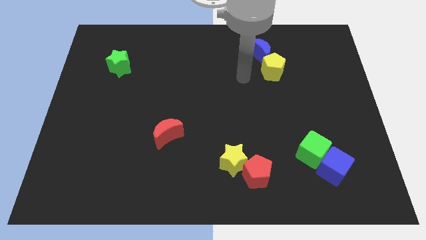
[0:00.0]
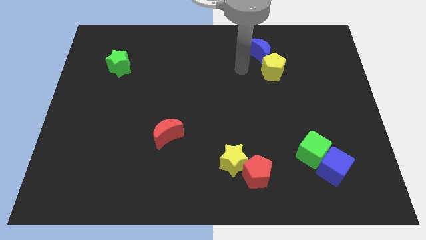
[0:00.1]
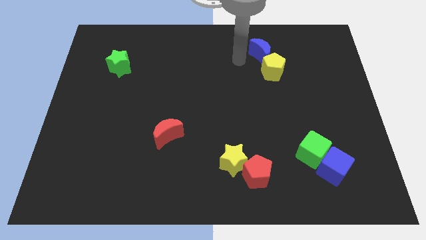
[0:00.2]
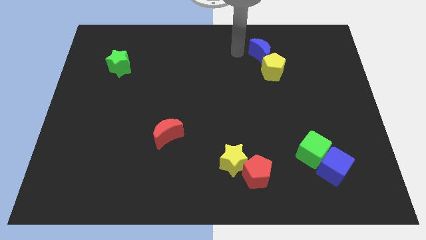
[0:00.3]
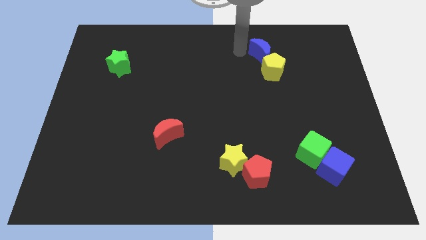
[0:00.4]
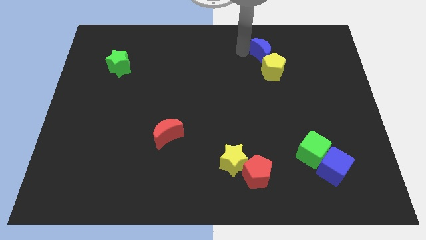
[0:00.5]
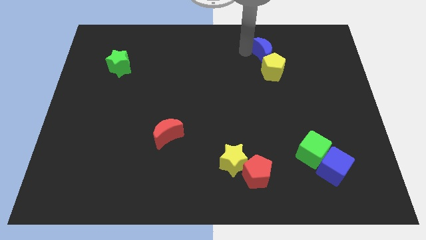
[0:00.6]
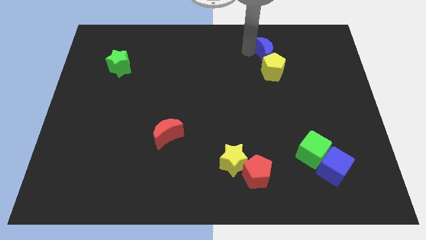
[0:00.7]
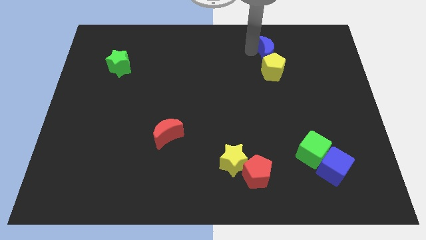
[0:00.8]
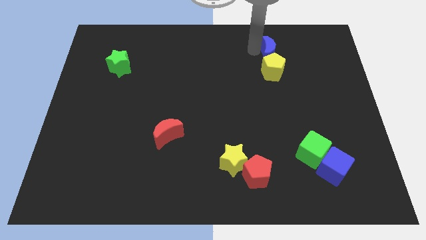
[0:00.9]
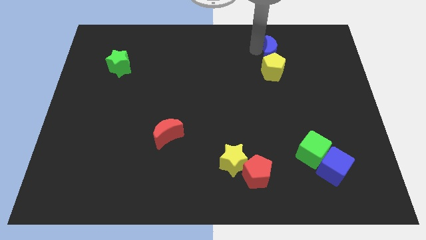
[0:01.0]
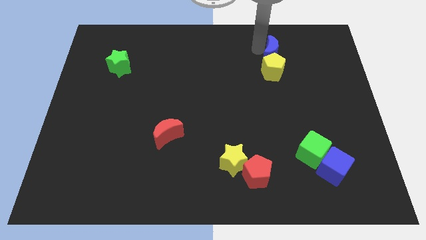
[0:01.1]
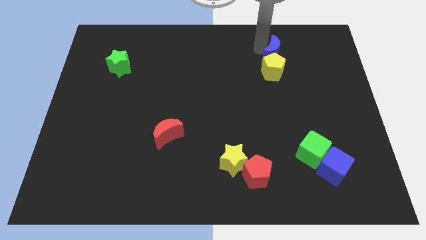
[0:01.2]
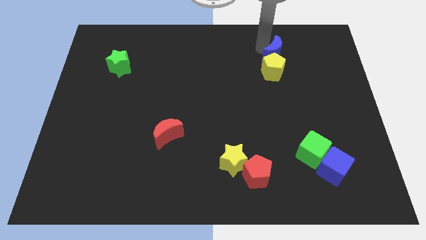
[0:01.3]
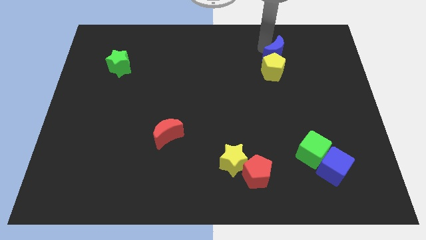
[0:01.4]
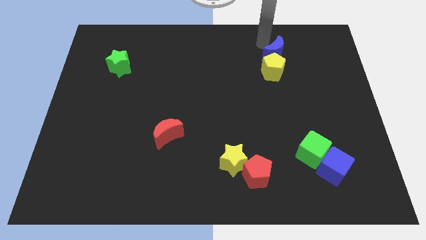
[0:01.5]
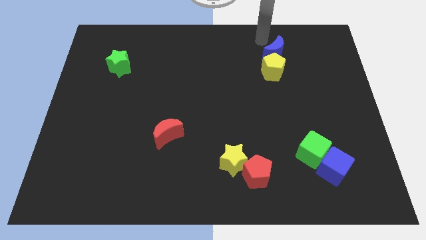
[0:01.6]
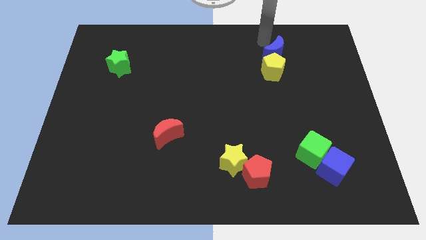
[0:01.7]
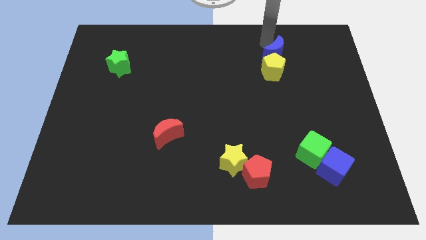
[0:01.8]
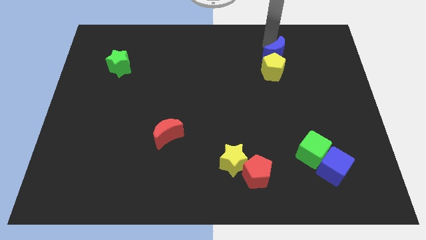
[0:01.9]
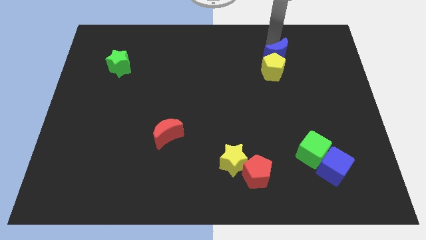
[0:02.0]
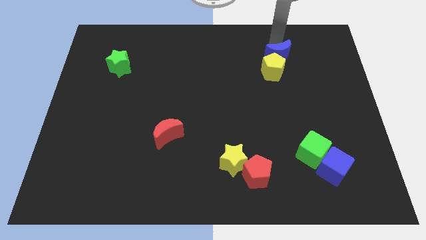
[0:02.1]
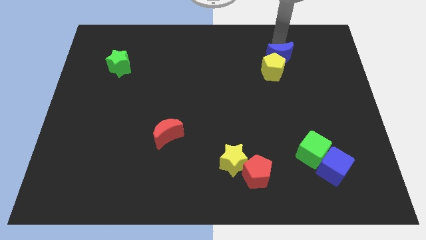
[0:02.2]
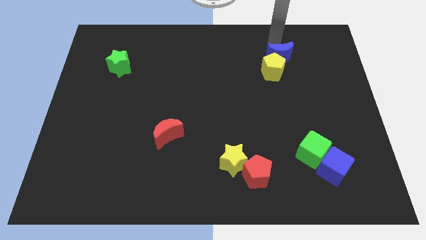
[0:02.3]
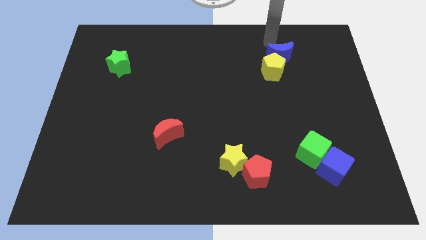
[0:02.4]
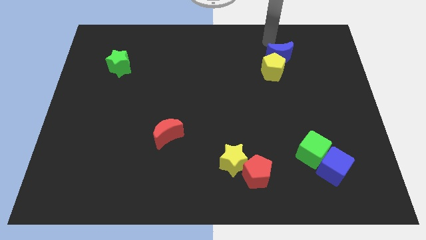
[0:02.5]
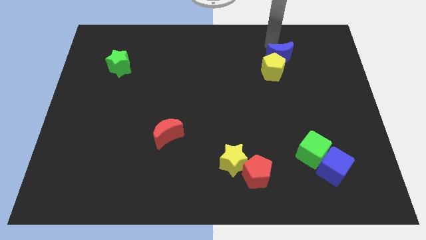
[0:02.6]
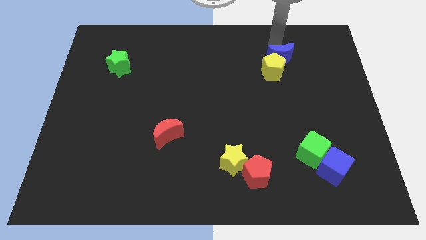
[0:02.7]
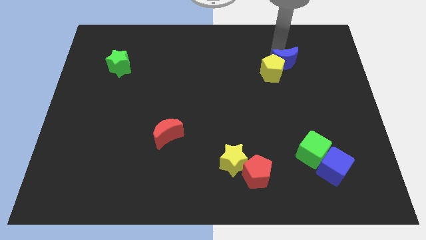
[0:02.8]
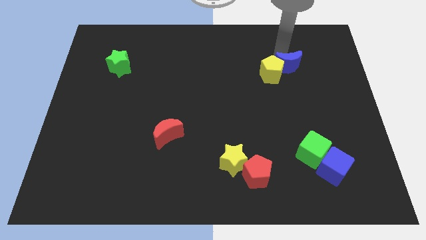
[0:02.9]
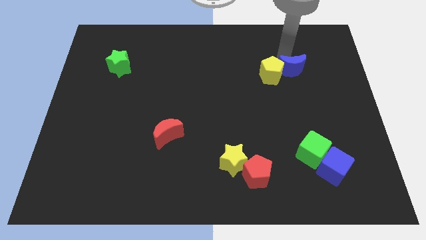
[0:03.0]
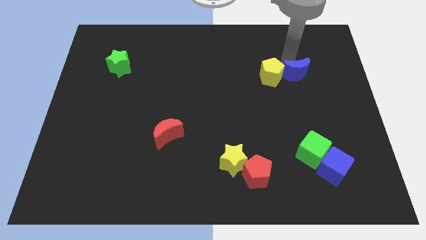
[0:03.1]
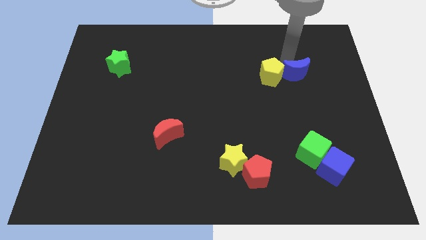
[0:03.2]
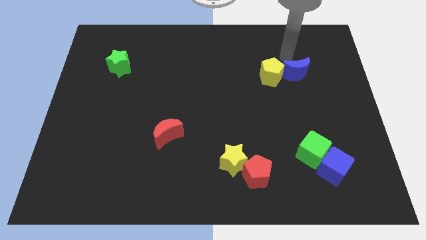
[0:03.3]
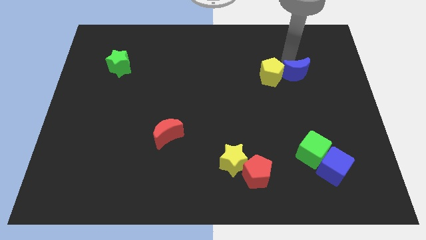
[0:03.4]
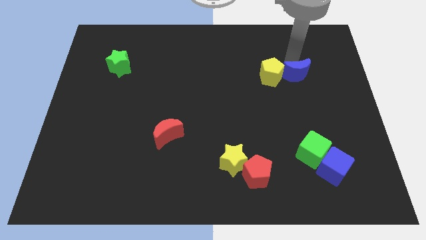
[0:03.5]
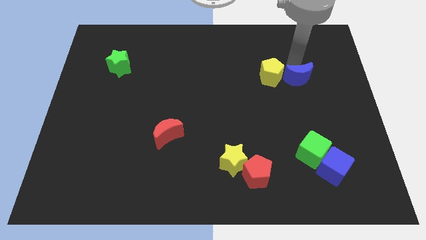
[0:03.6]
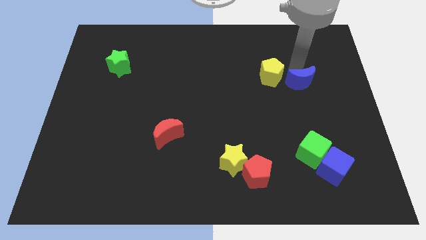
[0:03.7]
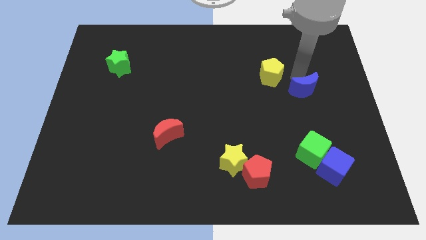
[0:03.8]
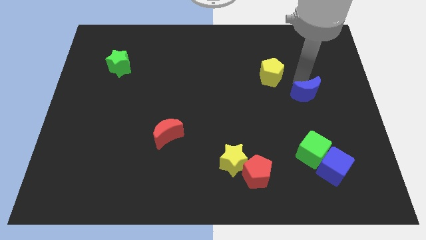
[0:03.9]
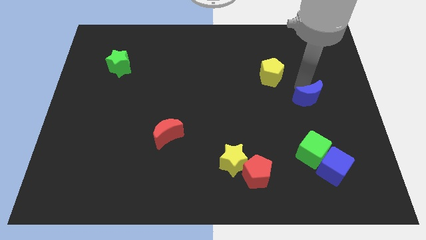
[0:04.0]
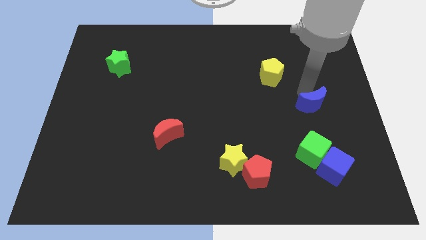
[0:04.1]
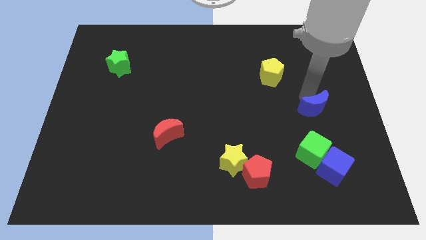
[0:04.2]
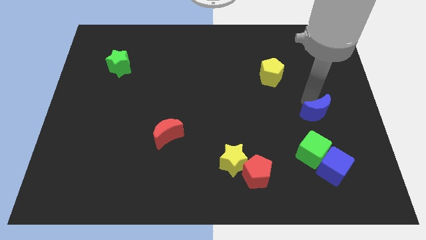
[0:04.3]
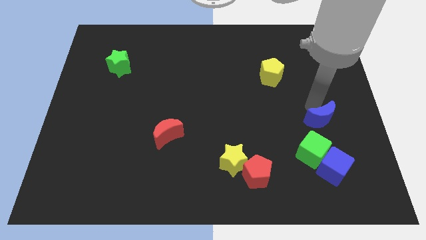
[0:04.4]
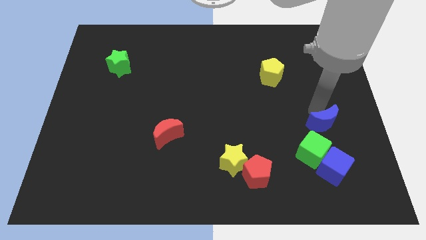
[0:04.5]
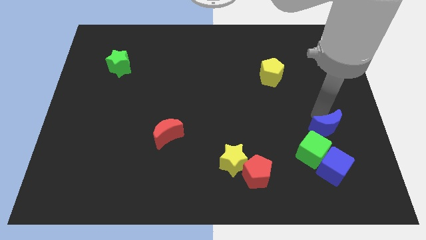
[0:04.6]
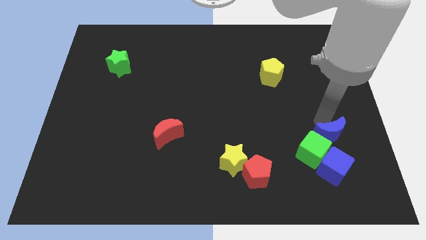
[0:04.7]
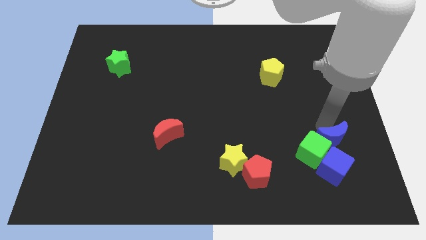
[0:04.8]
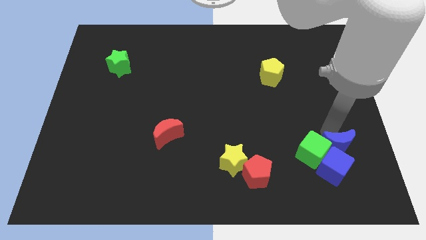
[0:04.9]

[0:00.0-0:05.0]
move the blue moon to the blue cube

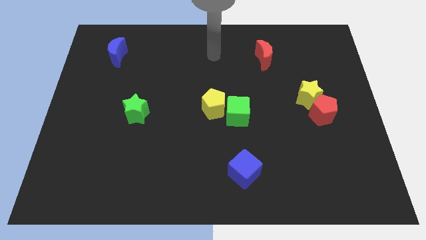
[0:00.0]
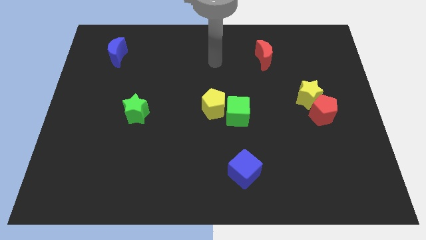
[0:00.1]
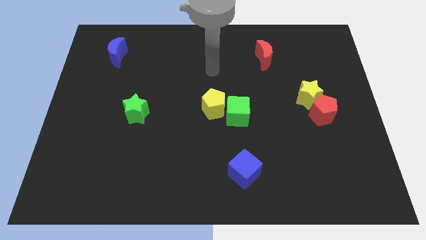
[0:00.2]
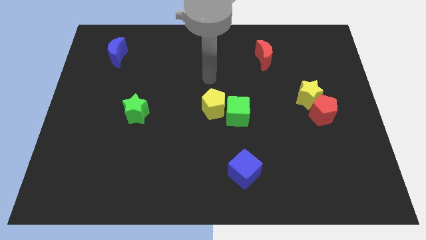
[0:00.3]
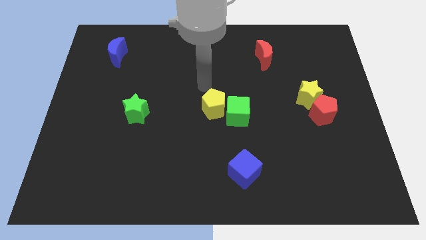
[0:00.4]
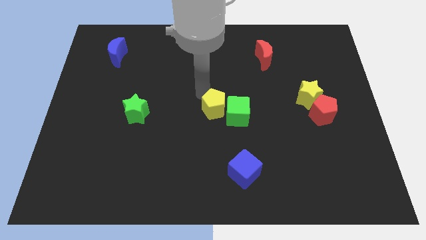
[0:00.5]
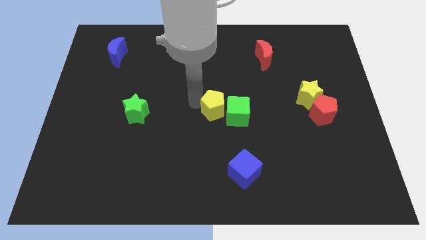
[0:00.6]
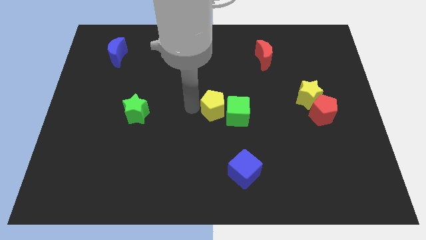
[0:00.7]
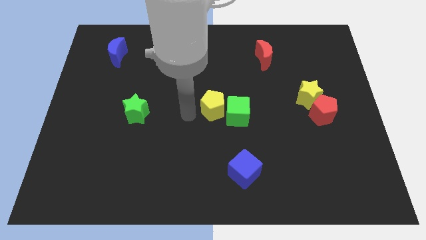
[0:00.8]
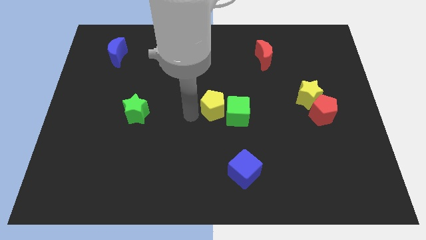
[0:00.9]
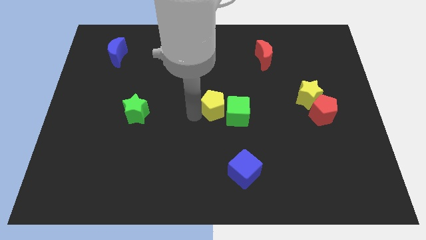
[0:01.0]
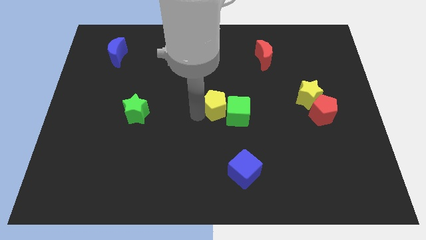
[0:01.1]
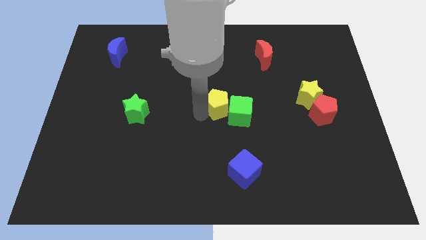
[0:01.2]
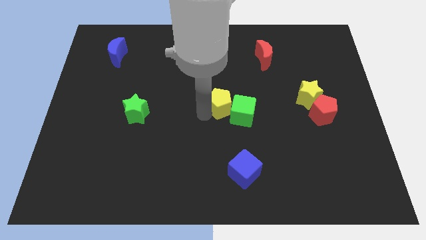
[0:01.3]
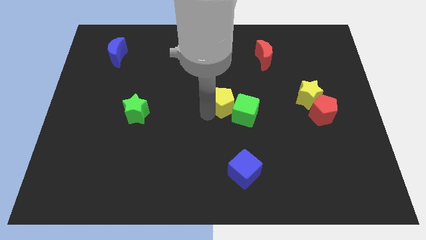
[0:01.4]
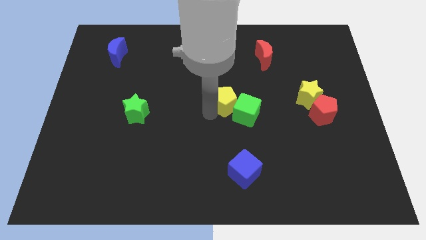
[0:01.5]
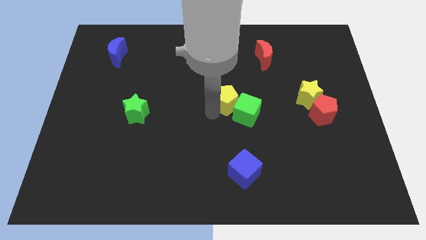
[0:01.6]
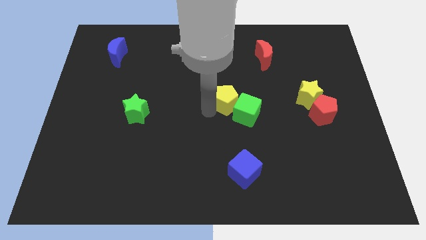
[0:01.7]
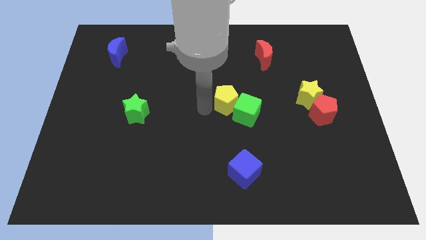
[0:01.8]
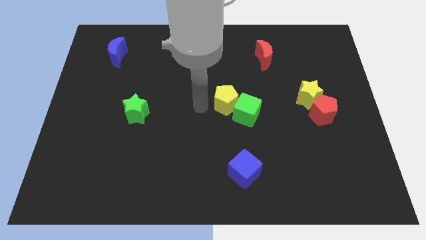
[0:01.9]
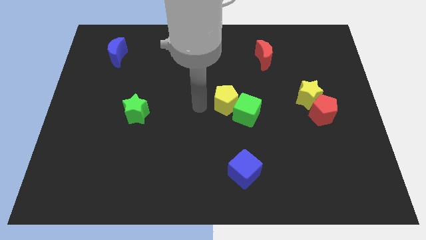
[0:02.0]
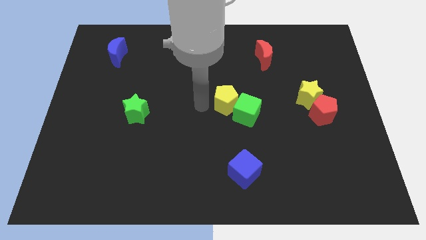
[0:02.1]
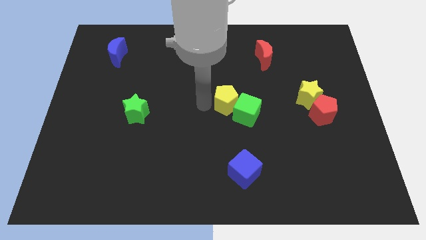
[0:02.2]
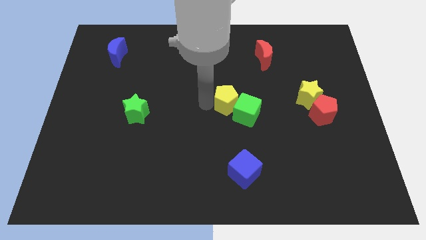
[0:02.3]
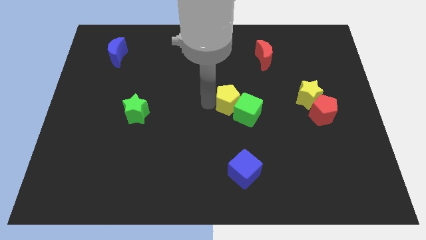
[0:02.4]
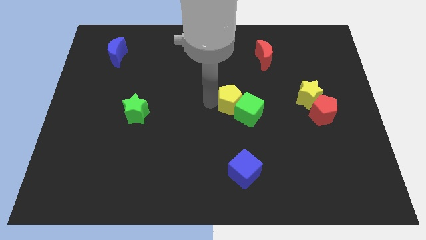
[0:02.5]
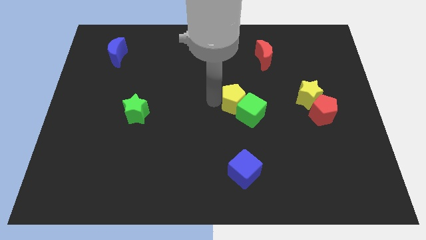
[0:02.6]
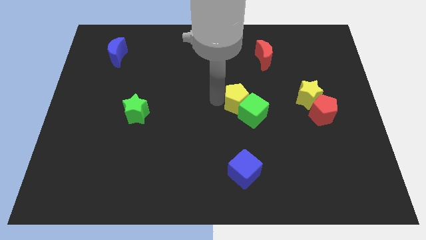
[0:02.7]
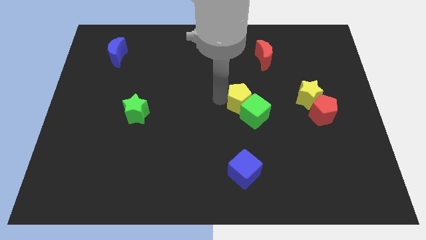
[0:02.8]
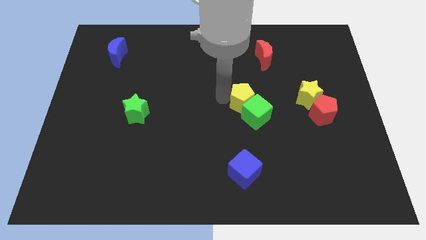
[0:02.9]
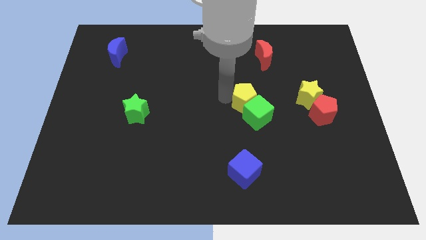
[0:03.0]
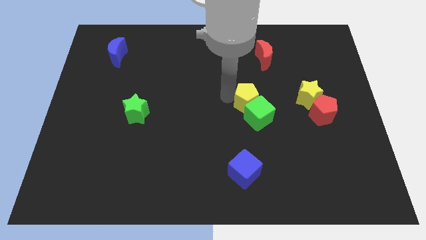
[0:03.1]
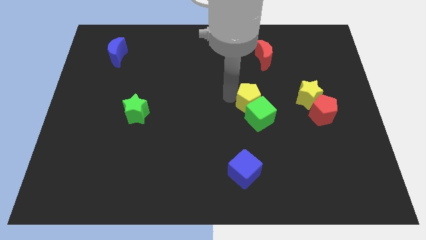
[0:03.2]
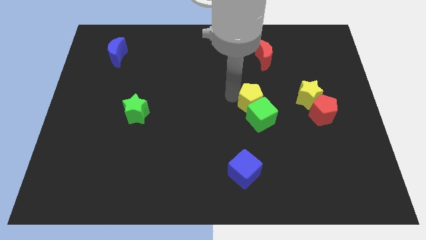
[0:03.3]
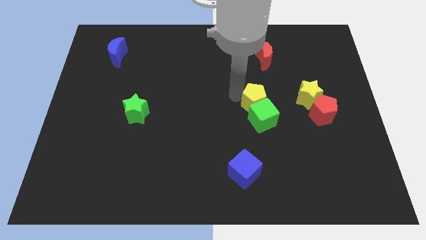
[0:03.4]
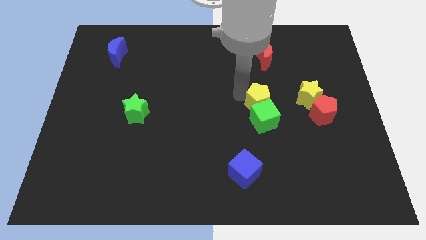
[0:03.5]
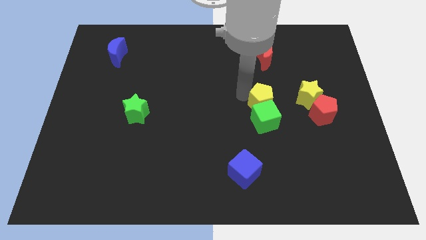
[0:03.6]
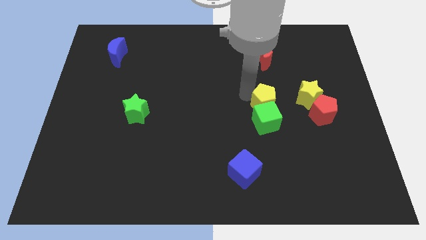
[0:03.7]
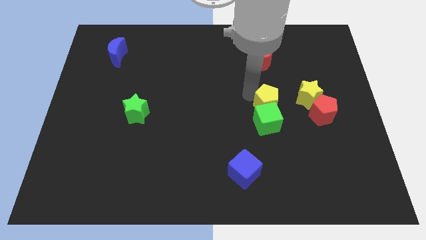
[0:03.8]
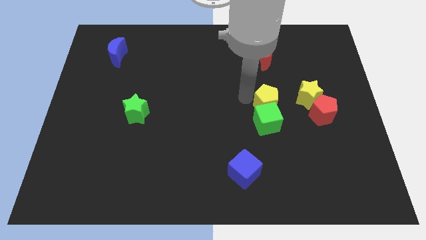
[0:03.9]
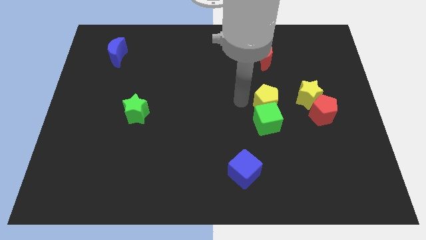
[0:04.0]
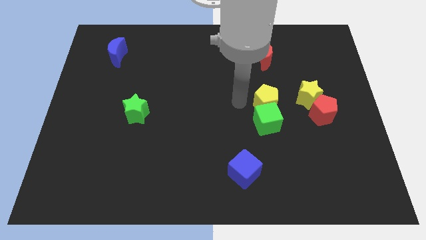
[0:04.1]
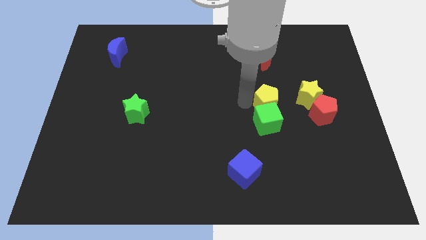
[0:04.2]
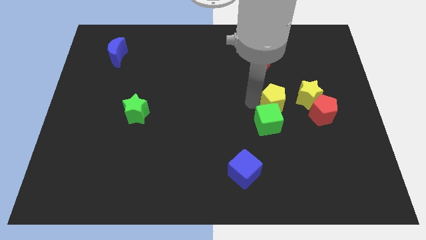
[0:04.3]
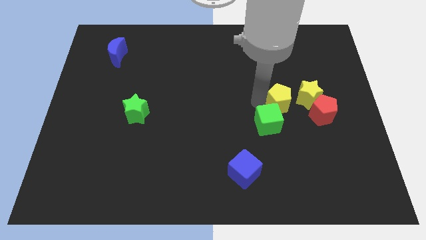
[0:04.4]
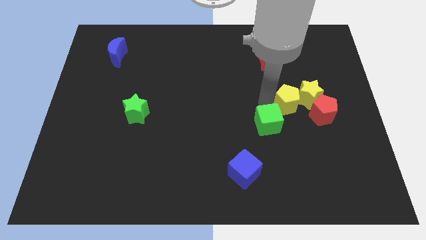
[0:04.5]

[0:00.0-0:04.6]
push the yellow pentagon to the yellow star
